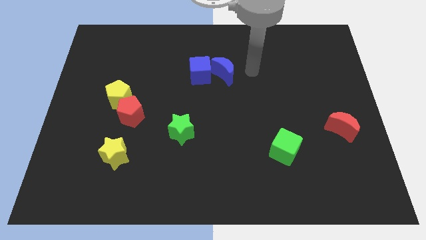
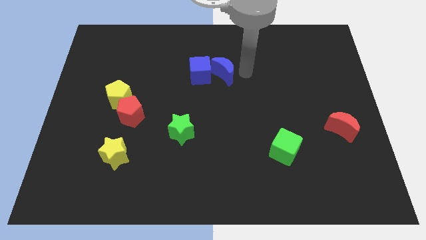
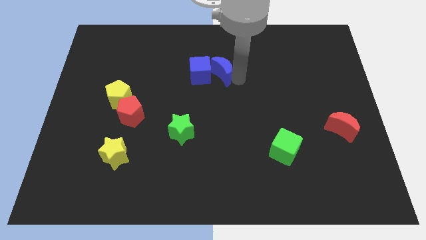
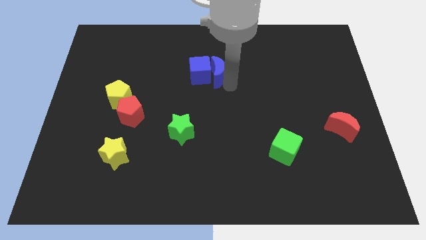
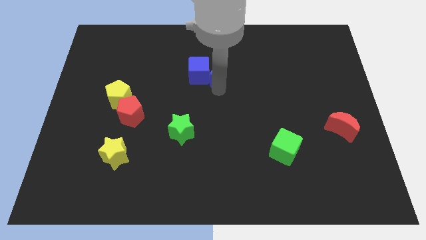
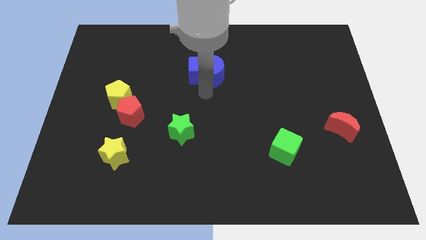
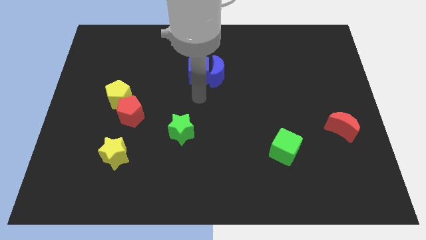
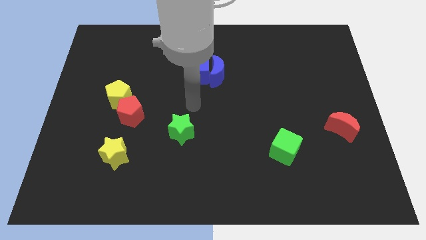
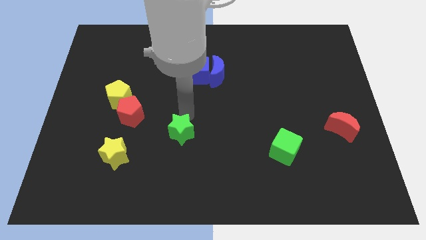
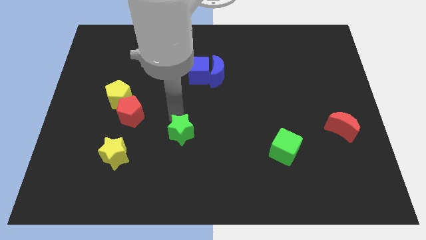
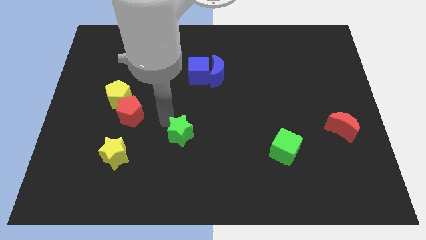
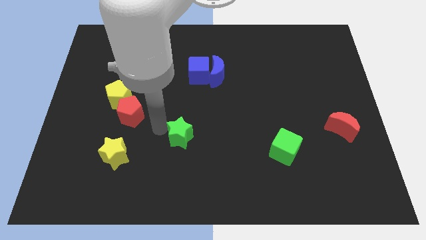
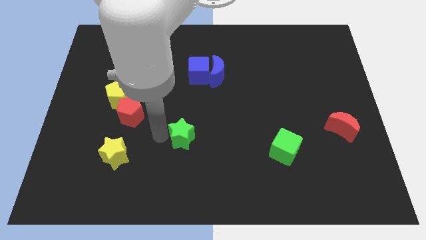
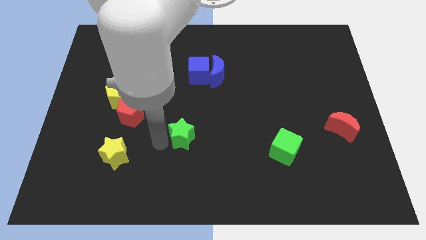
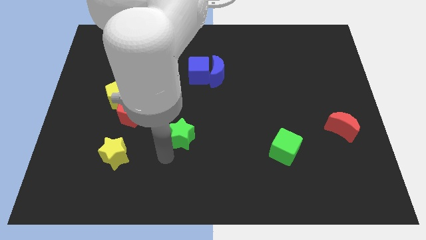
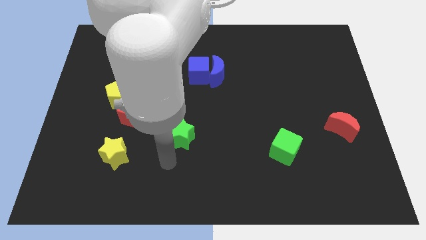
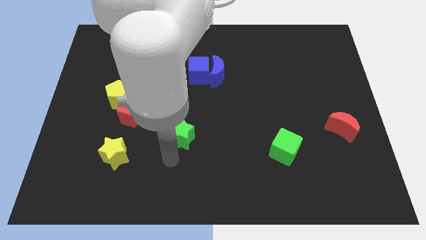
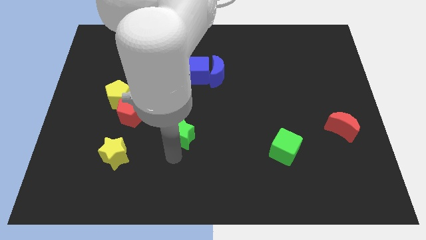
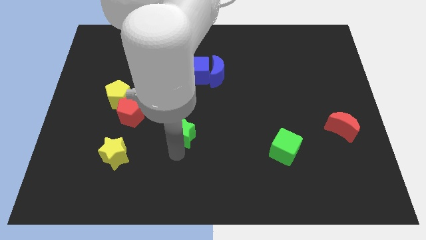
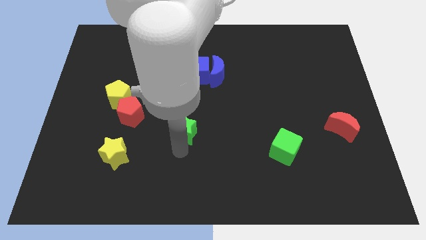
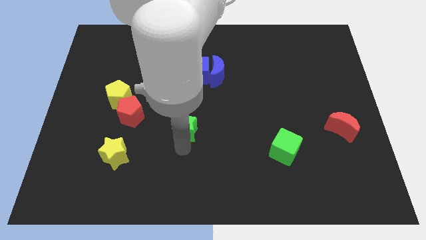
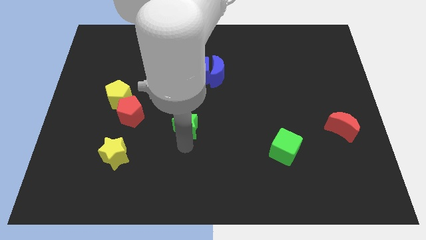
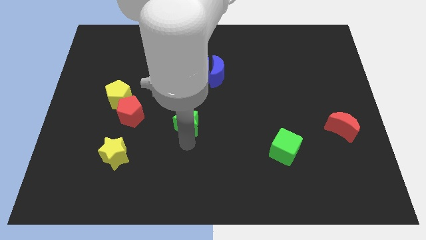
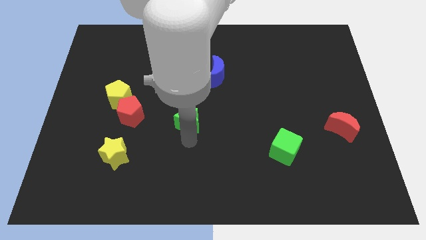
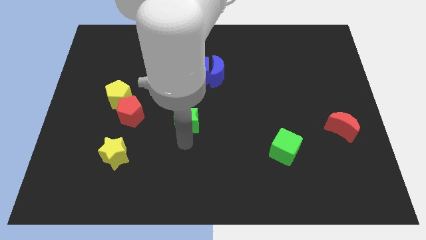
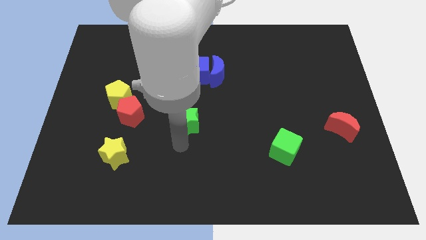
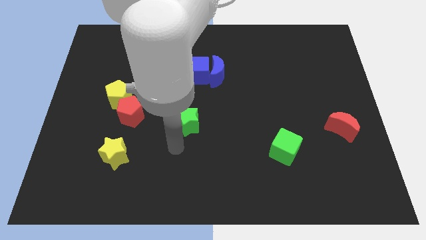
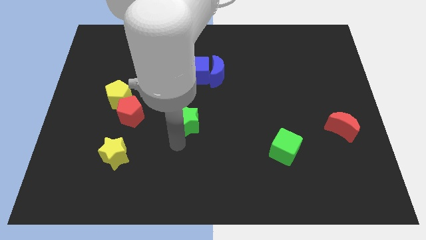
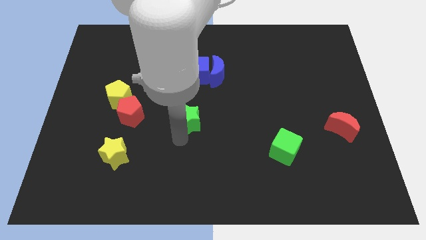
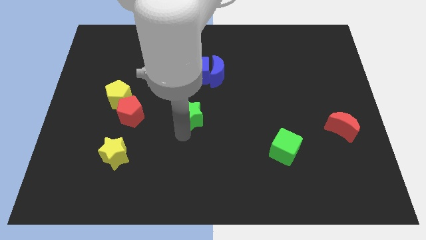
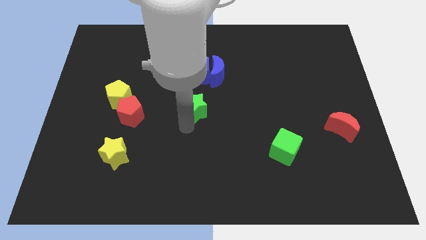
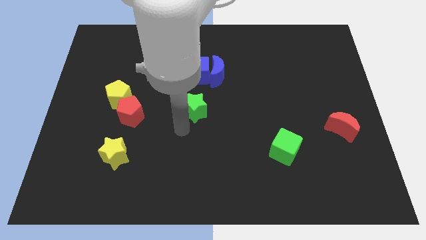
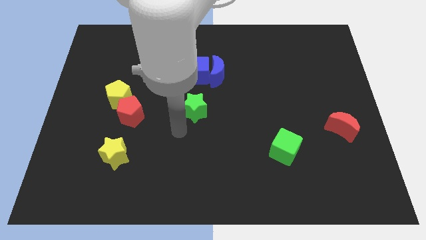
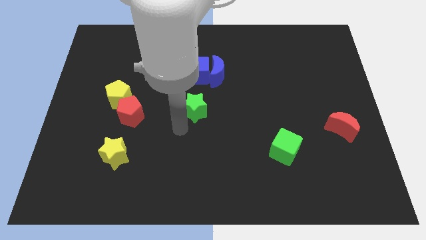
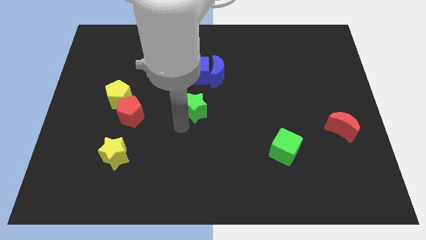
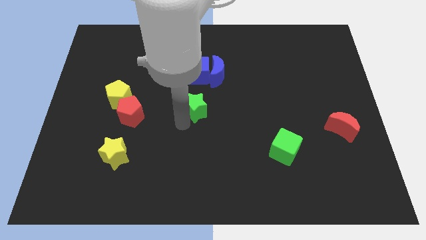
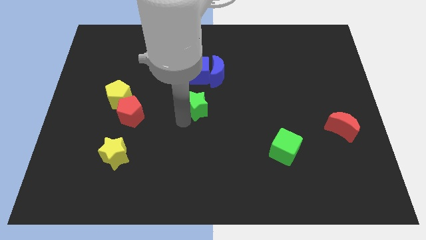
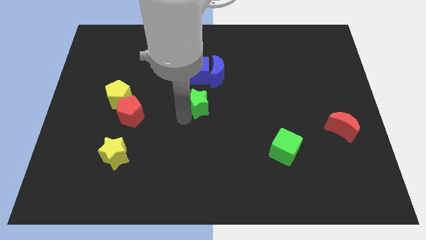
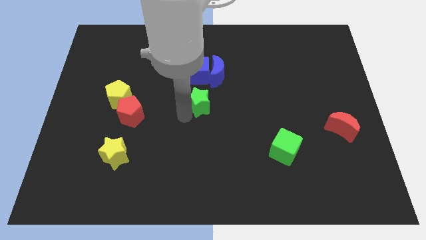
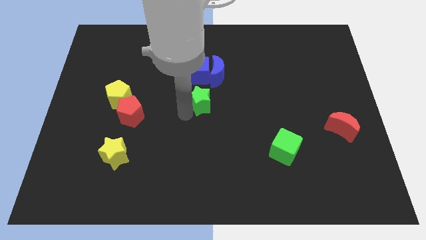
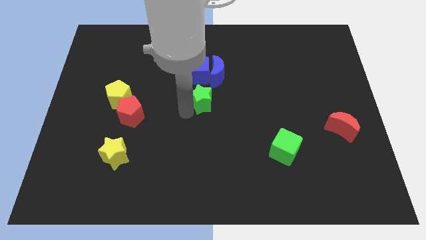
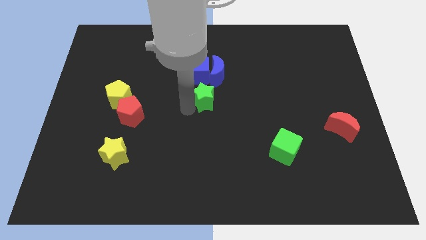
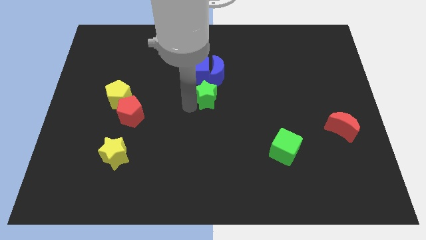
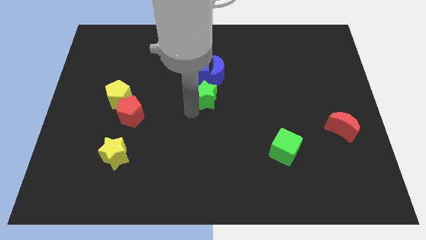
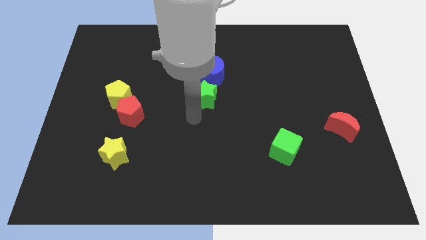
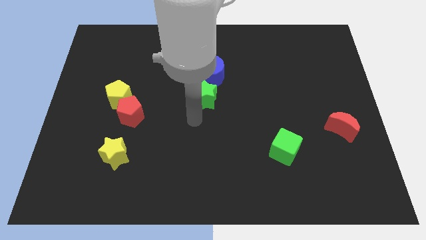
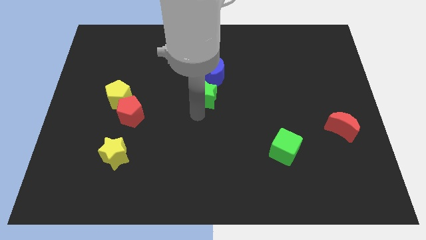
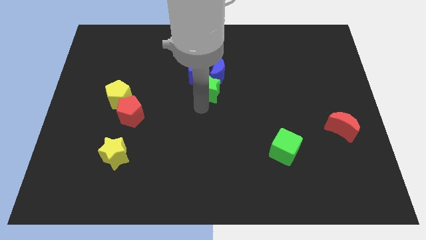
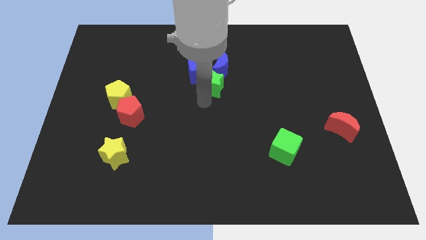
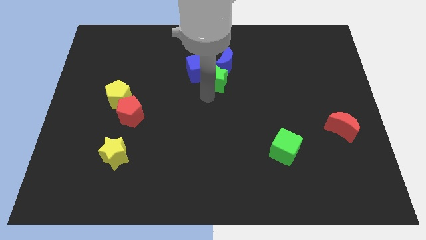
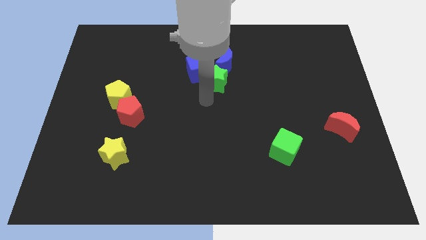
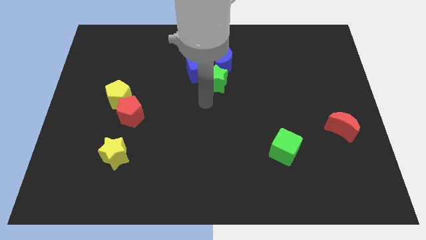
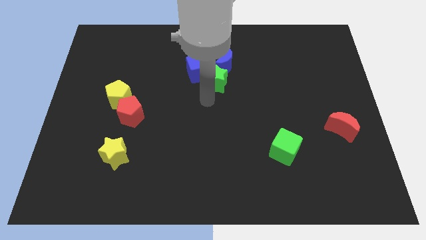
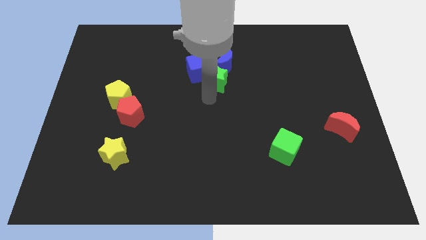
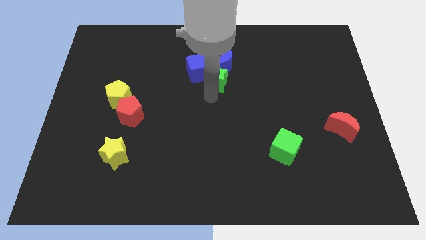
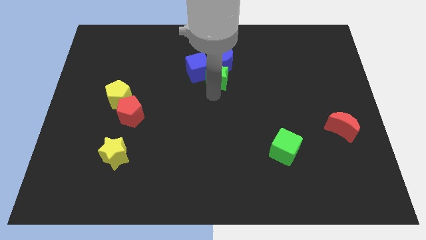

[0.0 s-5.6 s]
put the green star to the blue moon

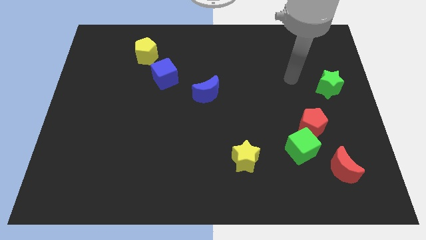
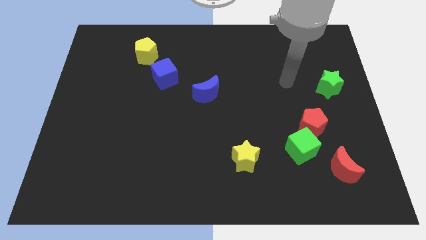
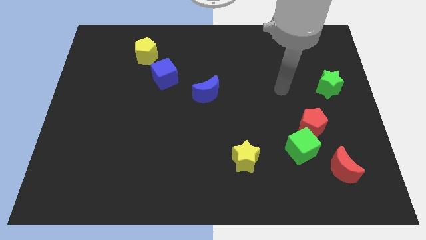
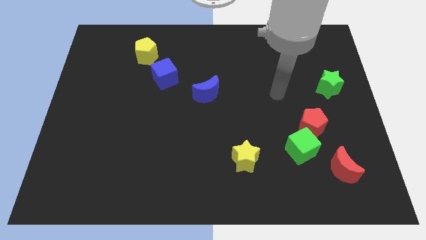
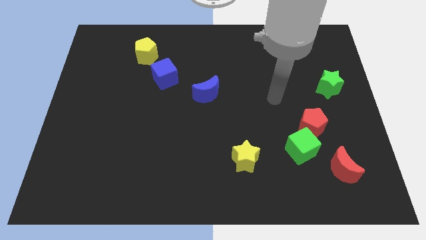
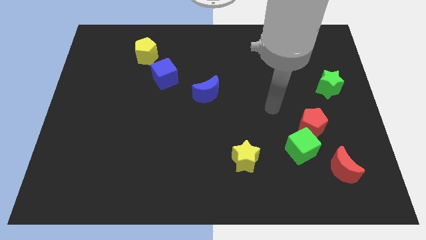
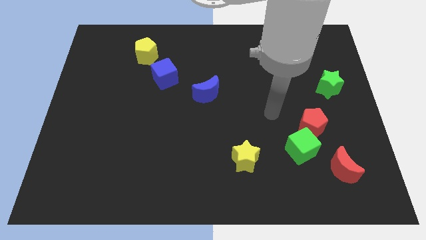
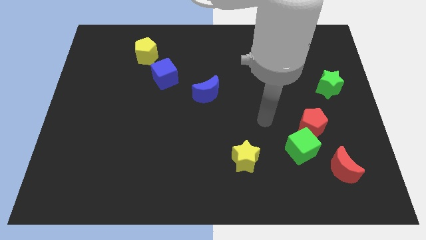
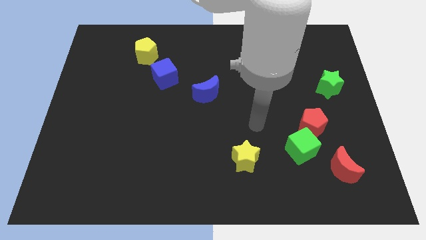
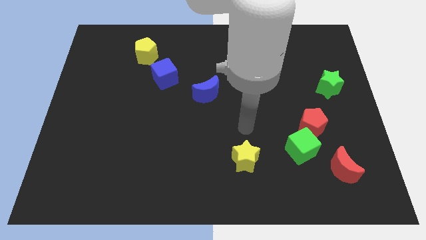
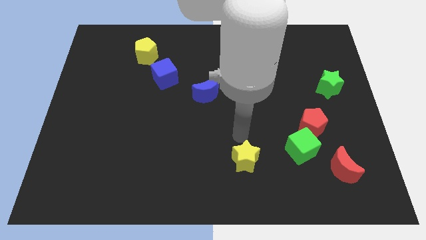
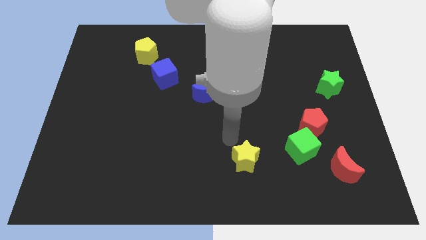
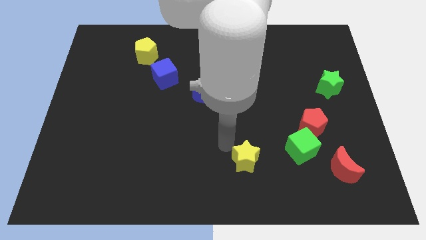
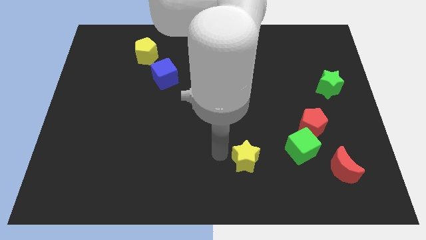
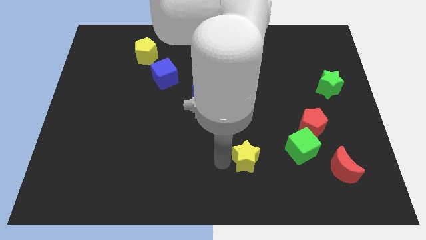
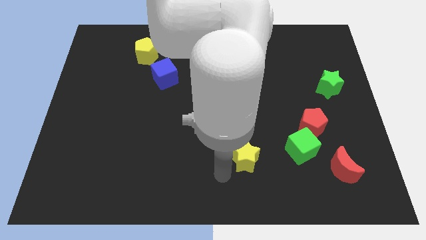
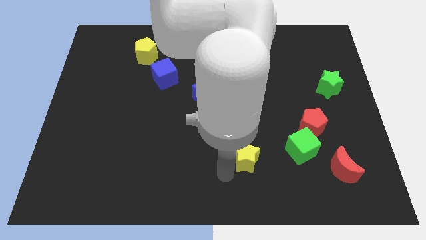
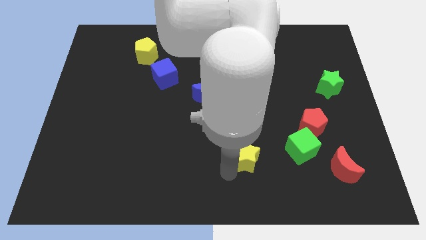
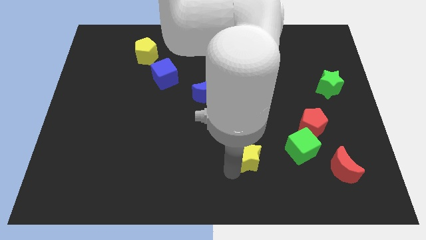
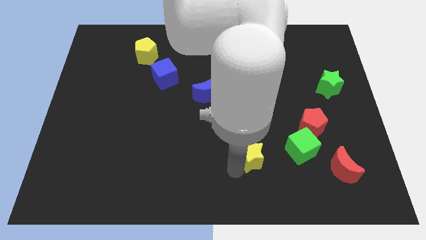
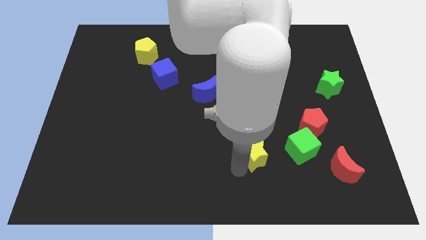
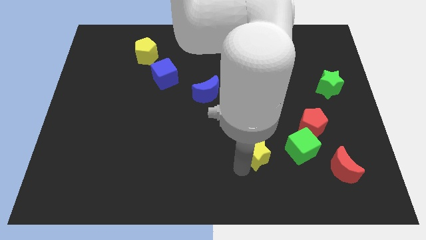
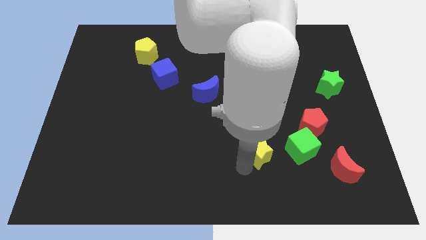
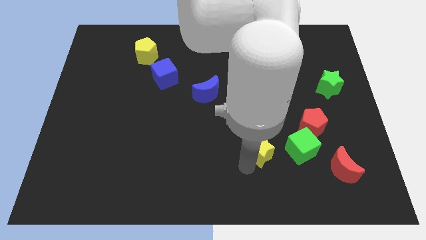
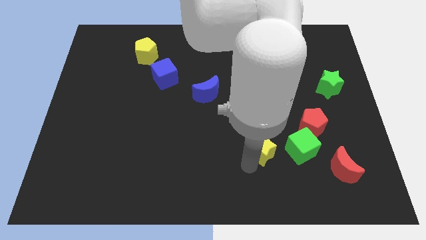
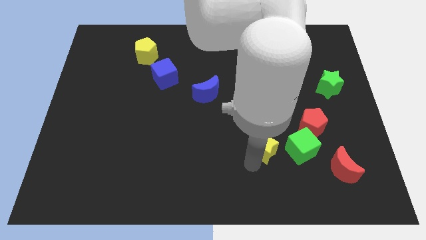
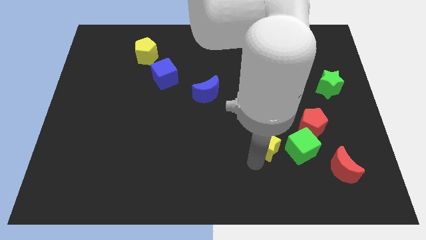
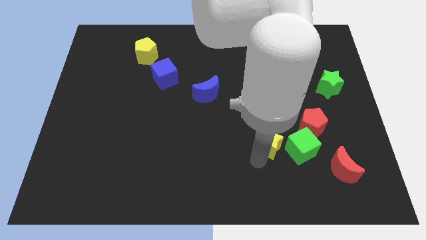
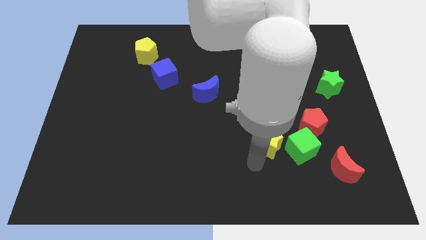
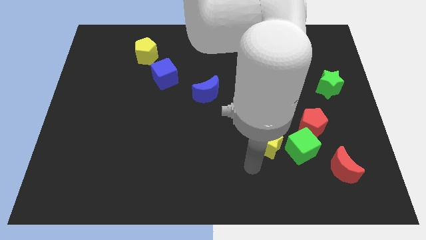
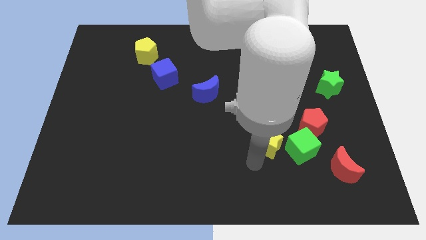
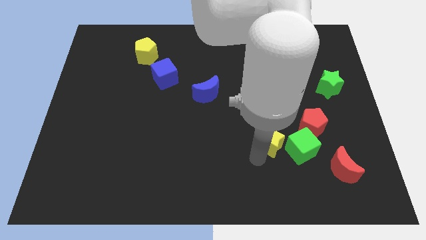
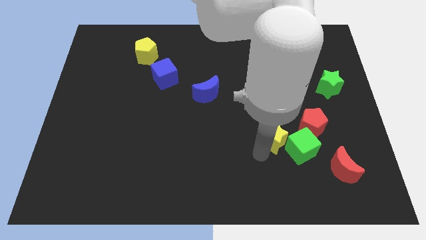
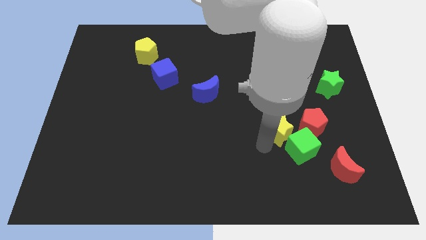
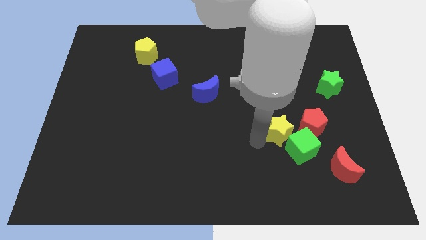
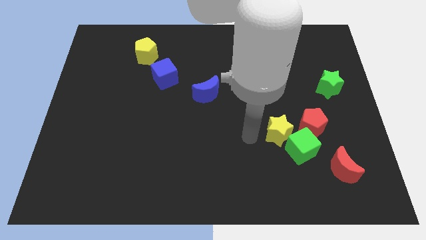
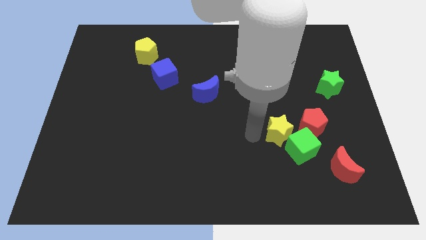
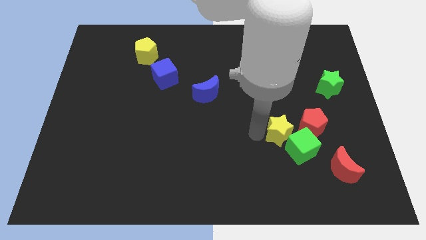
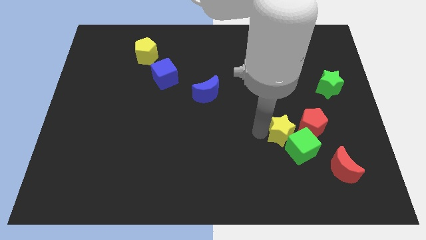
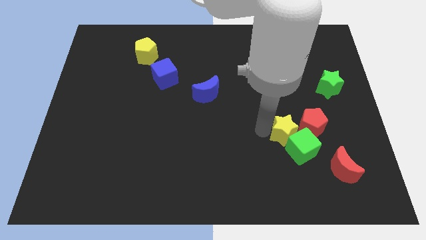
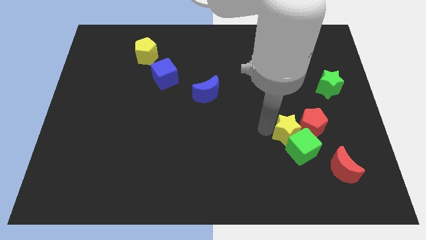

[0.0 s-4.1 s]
move the yellow star to the red pentagon
